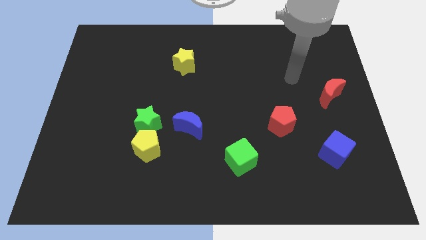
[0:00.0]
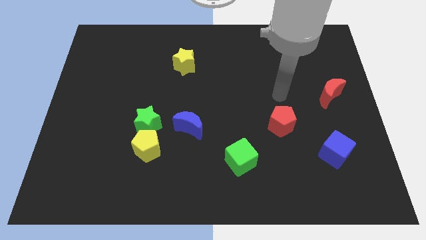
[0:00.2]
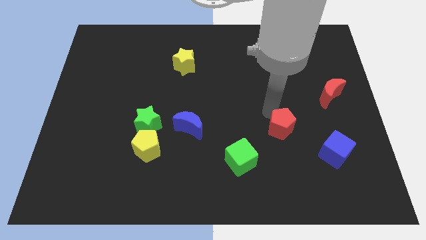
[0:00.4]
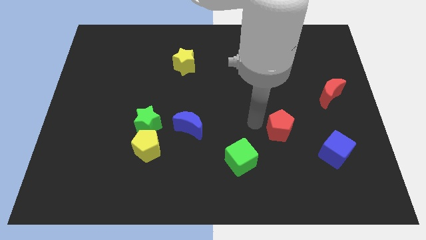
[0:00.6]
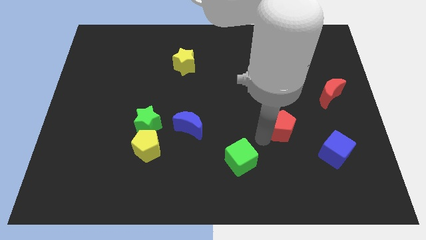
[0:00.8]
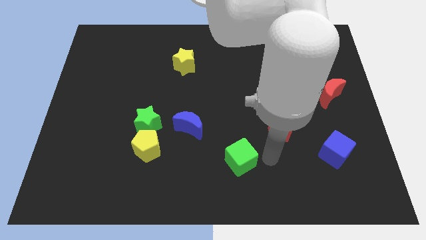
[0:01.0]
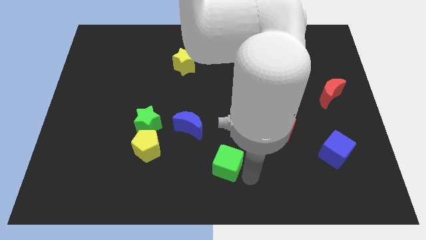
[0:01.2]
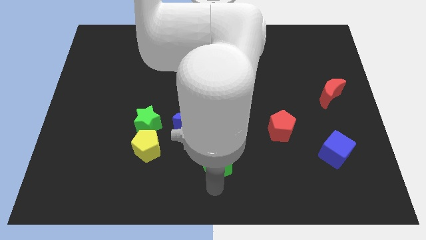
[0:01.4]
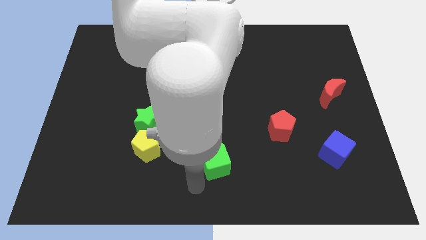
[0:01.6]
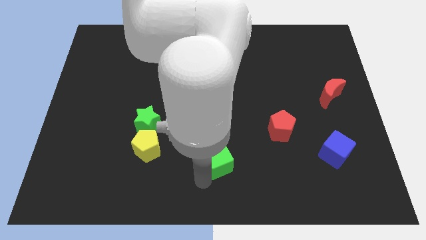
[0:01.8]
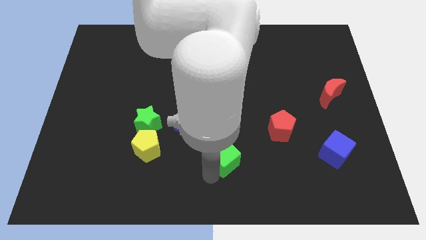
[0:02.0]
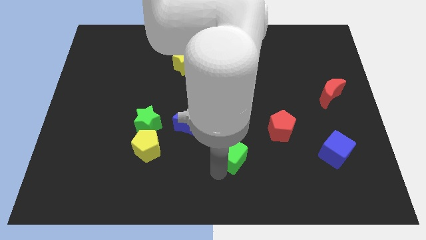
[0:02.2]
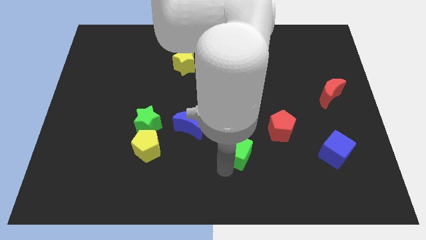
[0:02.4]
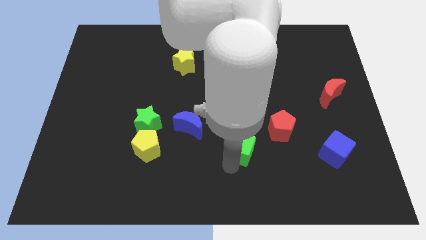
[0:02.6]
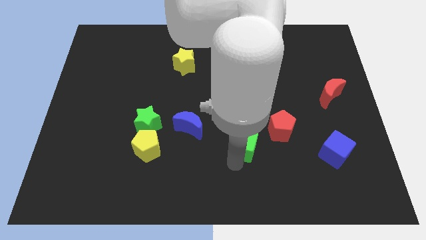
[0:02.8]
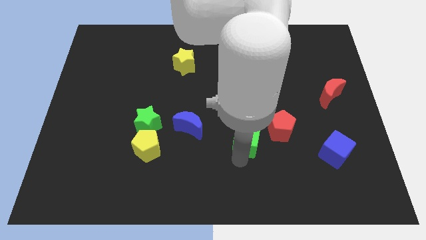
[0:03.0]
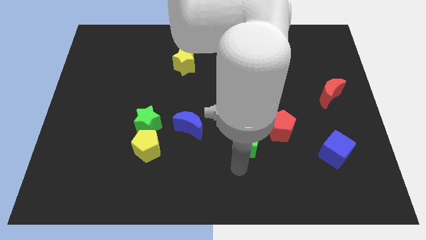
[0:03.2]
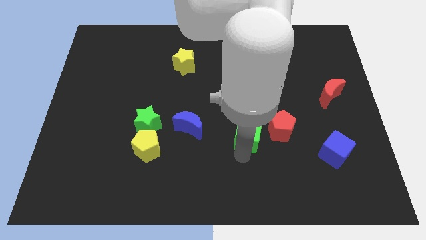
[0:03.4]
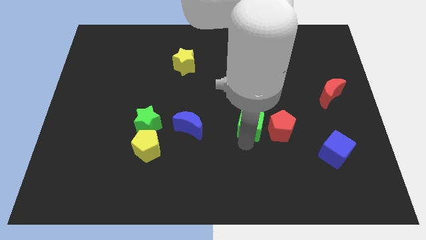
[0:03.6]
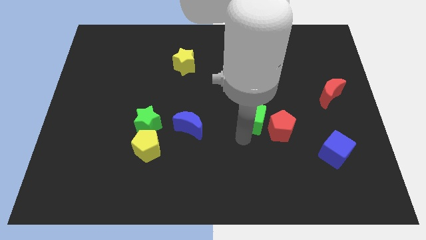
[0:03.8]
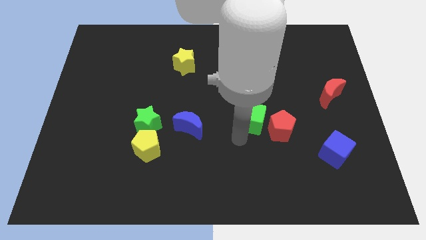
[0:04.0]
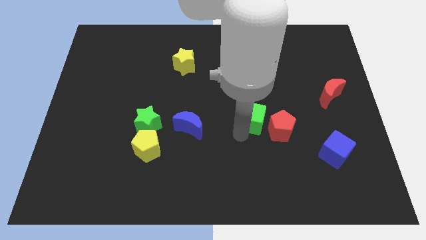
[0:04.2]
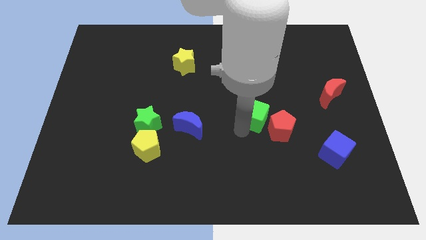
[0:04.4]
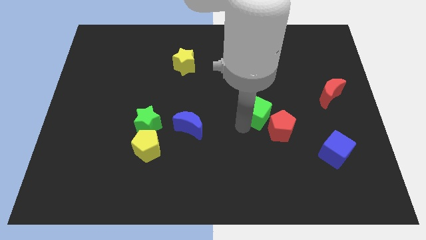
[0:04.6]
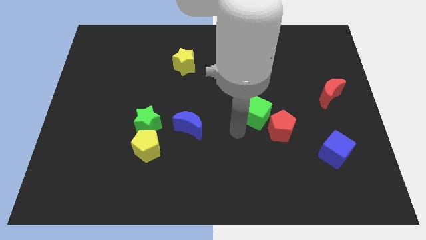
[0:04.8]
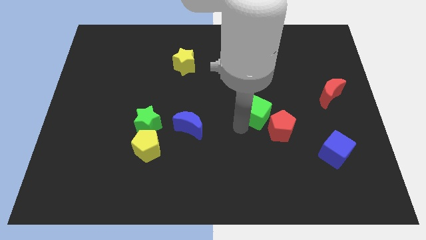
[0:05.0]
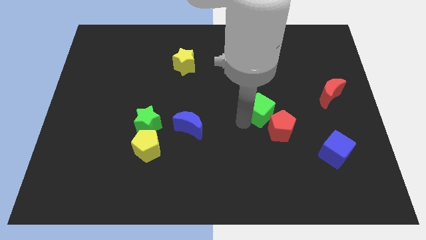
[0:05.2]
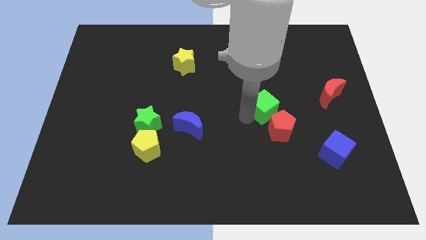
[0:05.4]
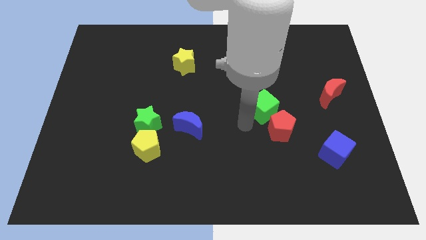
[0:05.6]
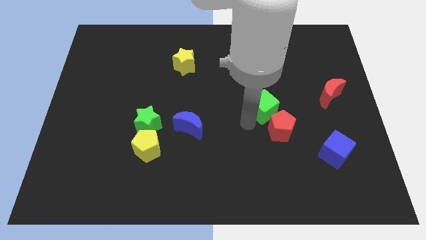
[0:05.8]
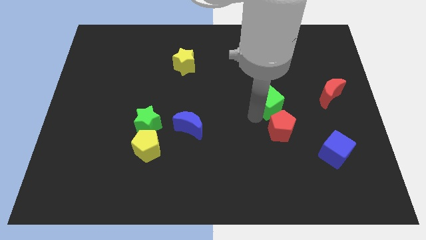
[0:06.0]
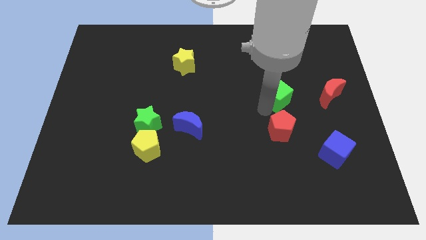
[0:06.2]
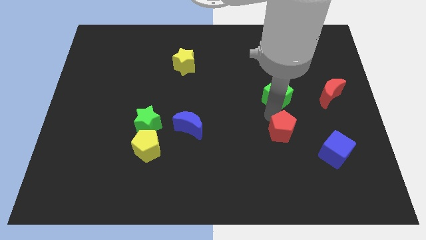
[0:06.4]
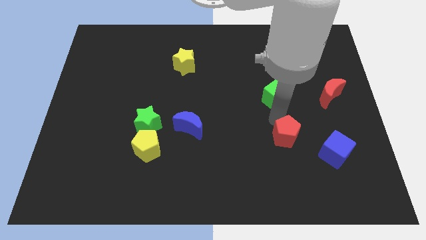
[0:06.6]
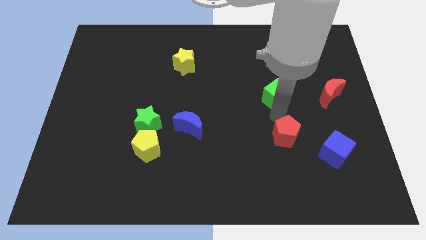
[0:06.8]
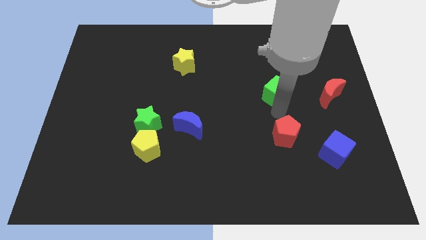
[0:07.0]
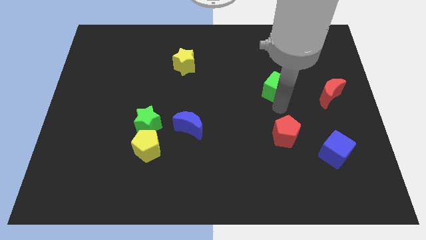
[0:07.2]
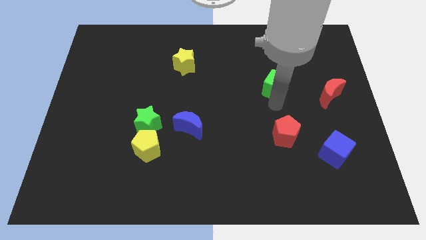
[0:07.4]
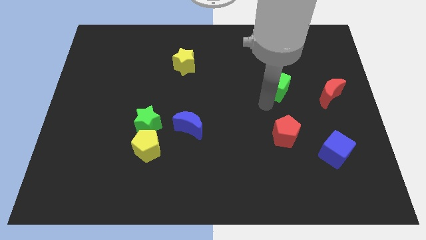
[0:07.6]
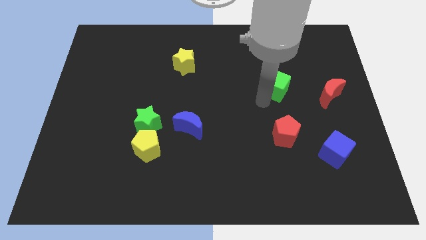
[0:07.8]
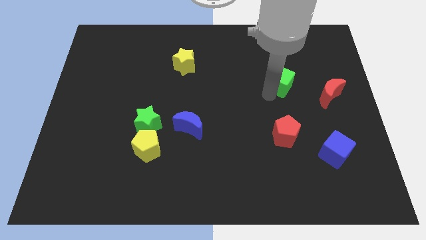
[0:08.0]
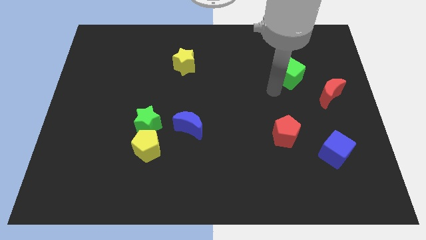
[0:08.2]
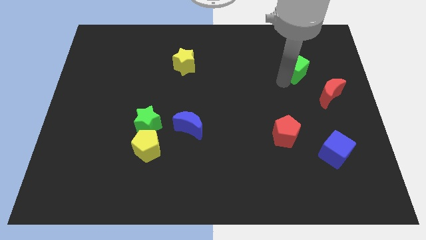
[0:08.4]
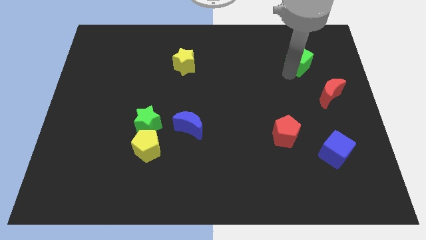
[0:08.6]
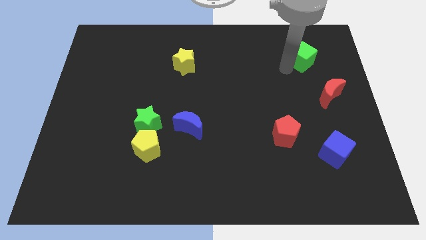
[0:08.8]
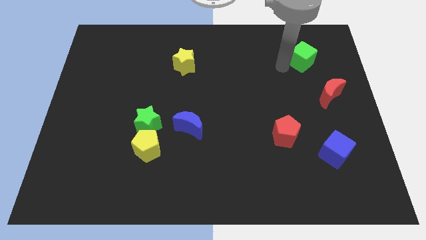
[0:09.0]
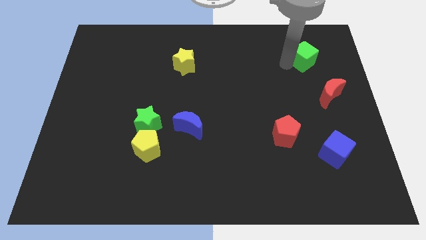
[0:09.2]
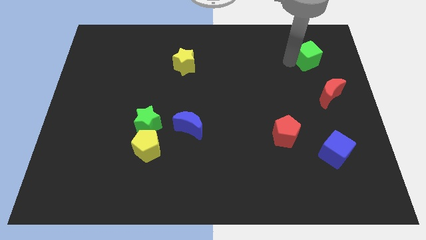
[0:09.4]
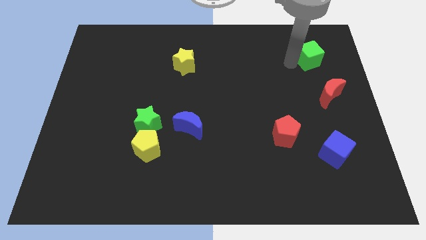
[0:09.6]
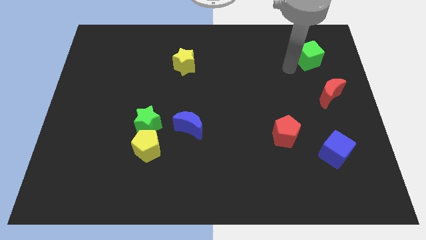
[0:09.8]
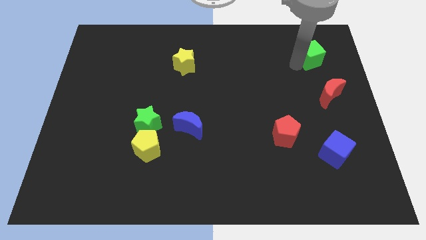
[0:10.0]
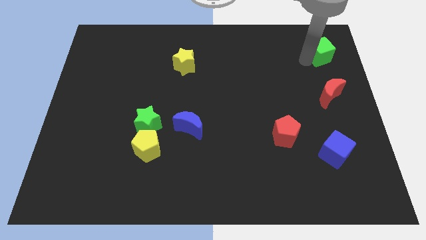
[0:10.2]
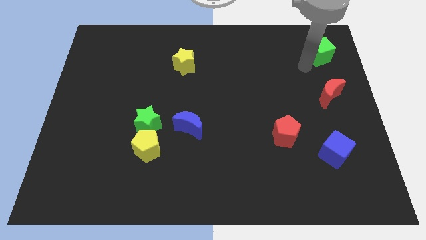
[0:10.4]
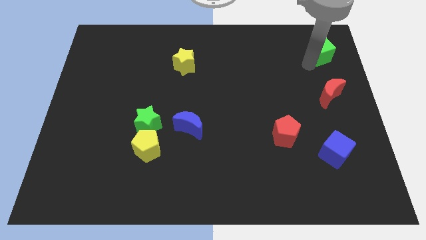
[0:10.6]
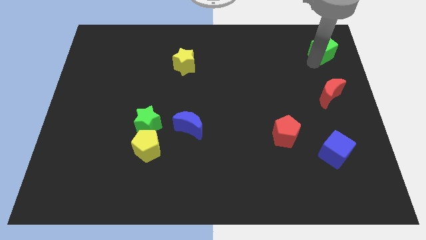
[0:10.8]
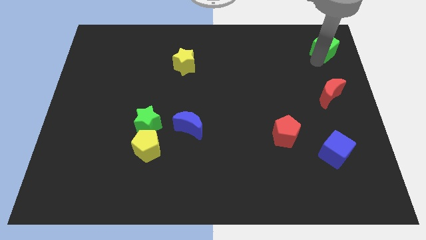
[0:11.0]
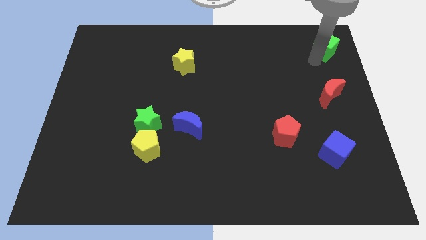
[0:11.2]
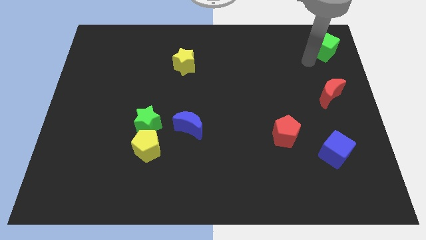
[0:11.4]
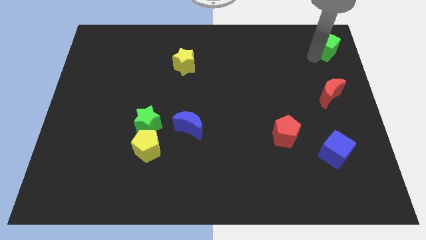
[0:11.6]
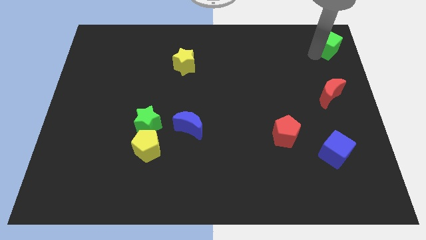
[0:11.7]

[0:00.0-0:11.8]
push the green cube to the top right
